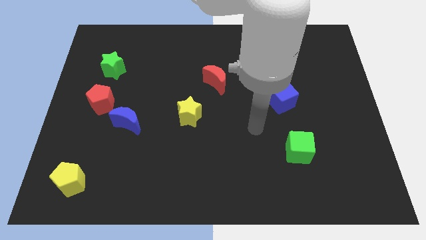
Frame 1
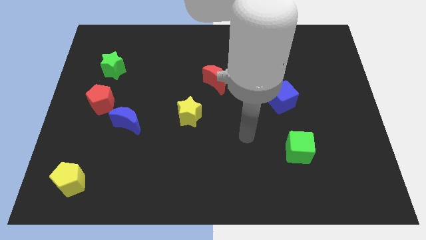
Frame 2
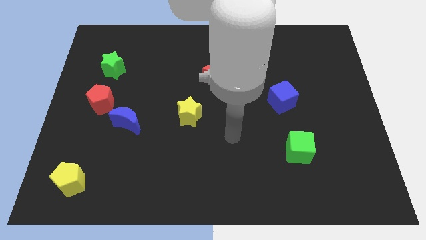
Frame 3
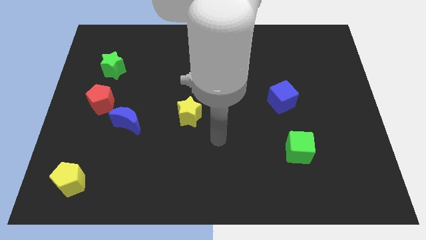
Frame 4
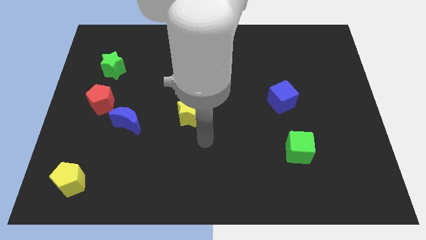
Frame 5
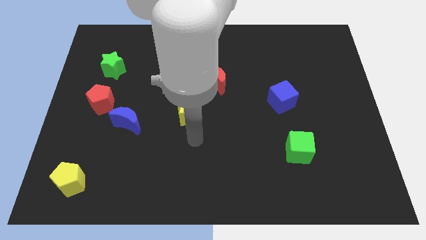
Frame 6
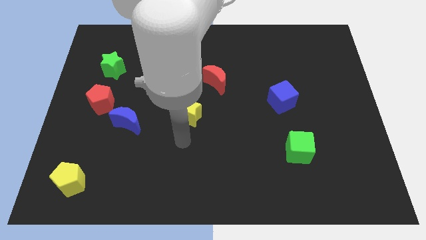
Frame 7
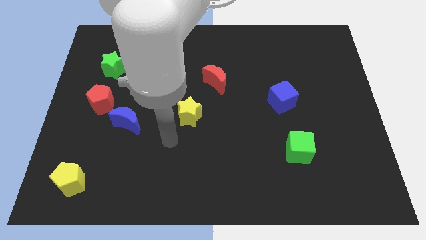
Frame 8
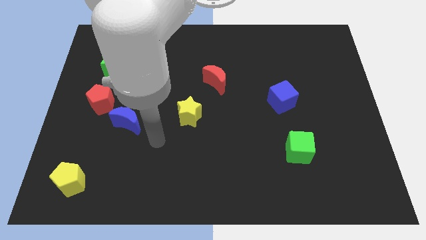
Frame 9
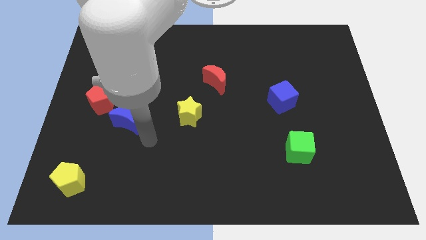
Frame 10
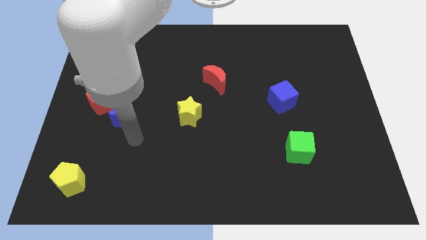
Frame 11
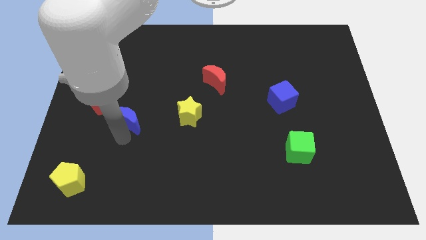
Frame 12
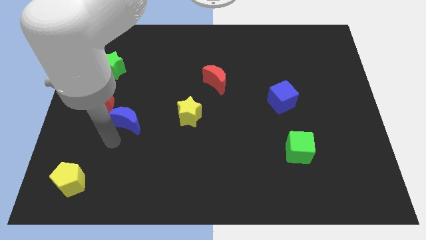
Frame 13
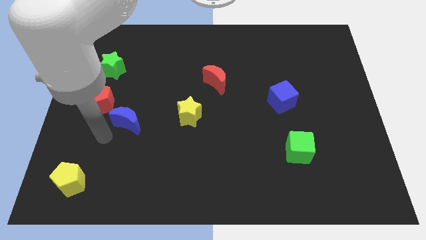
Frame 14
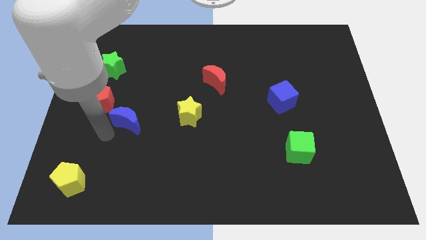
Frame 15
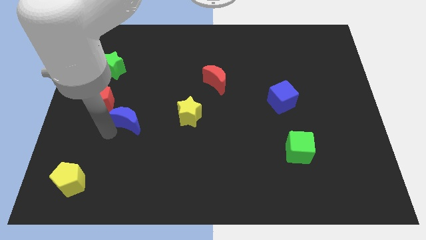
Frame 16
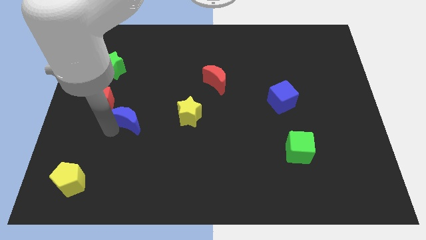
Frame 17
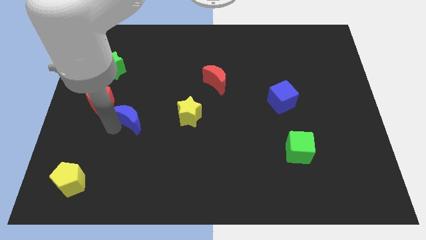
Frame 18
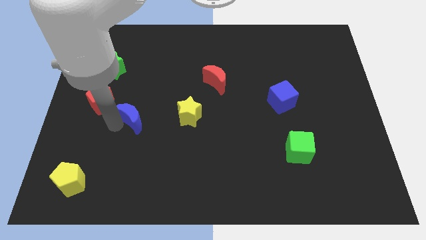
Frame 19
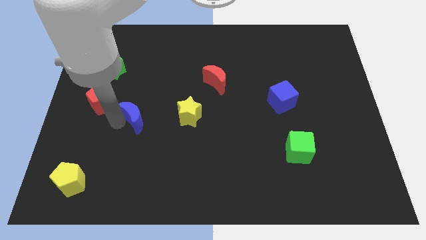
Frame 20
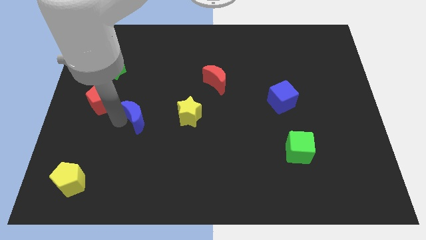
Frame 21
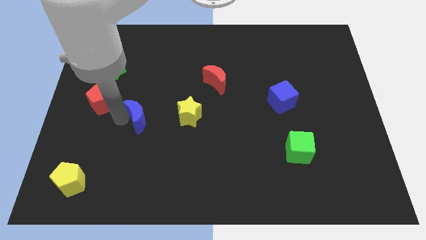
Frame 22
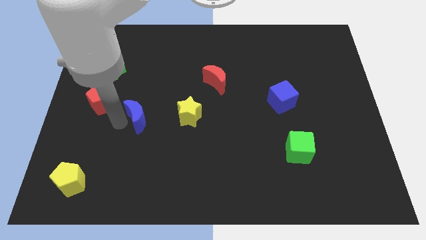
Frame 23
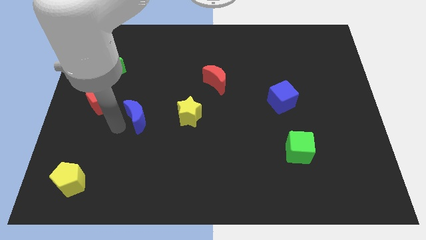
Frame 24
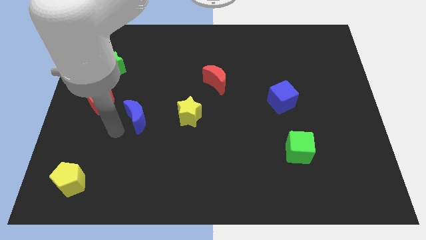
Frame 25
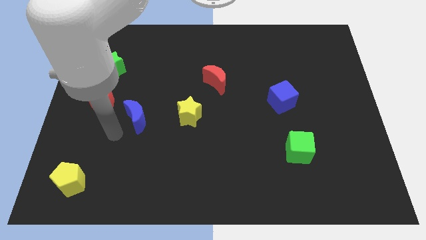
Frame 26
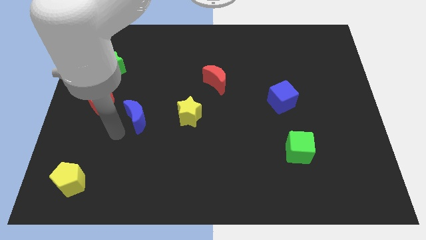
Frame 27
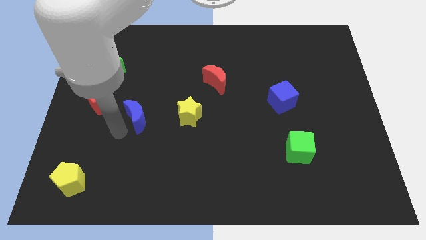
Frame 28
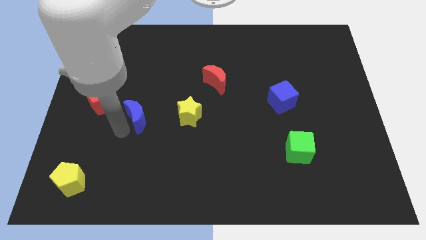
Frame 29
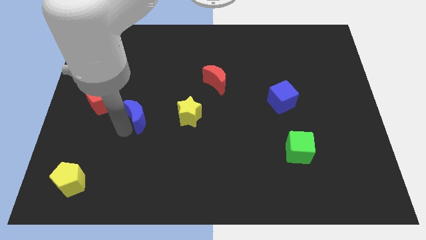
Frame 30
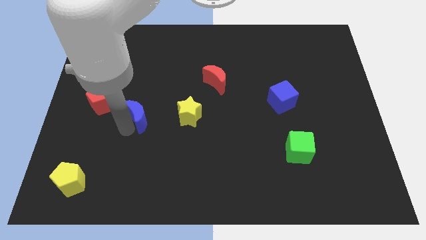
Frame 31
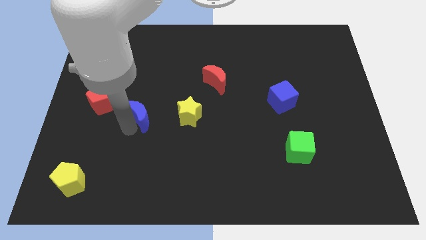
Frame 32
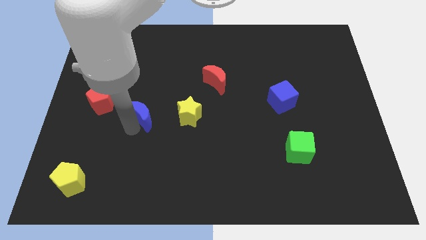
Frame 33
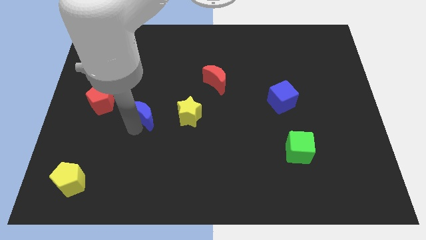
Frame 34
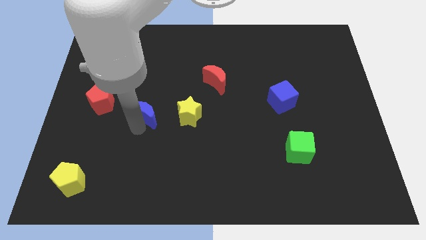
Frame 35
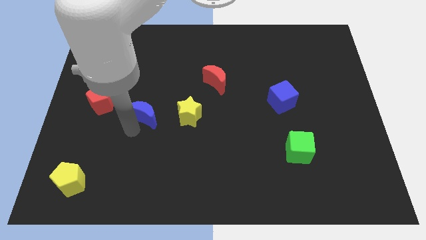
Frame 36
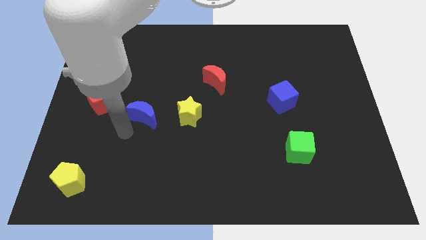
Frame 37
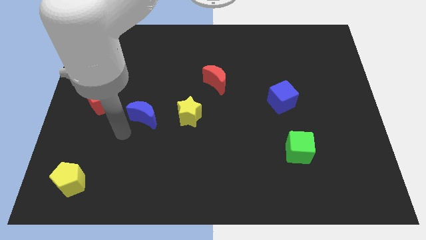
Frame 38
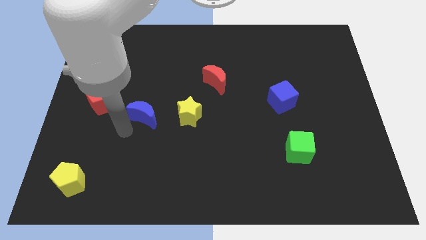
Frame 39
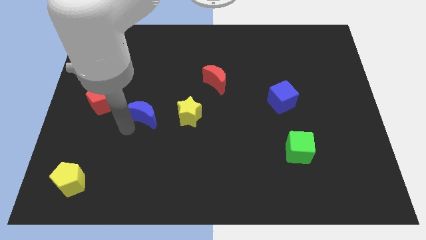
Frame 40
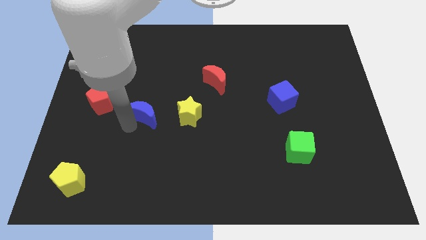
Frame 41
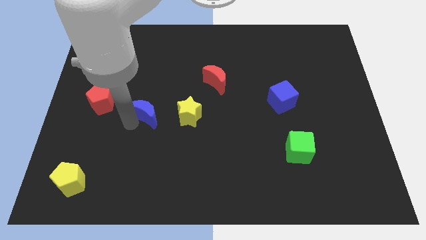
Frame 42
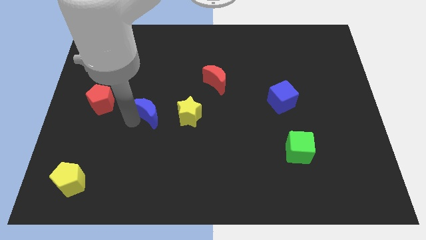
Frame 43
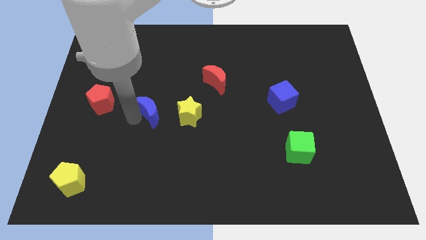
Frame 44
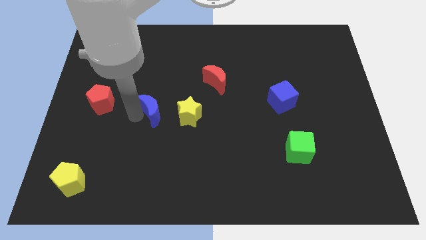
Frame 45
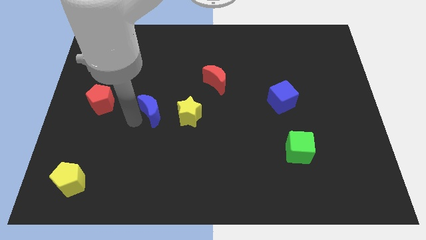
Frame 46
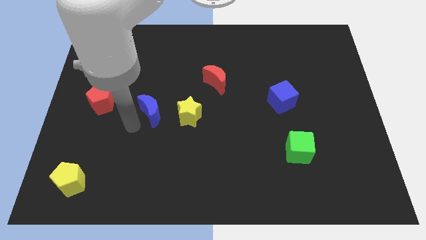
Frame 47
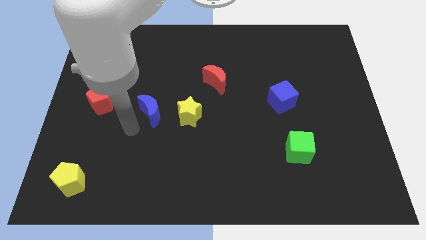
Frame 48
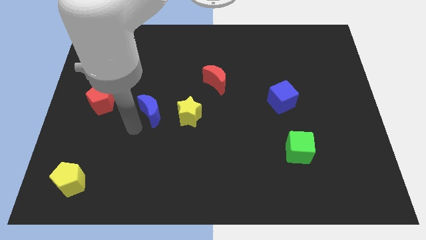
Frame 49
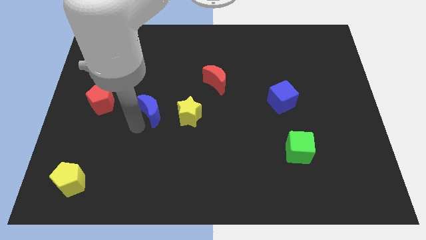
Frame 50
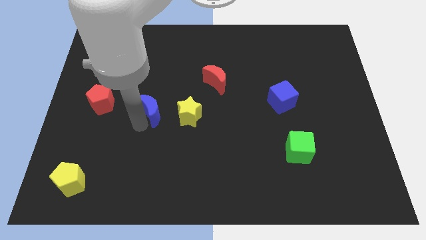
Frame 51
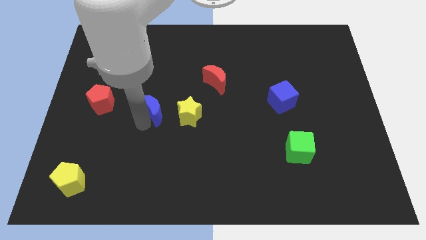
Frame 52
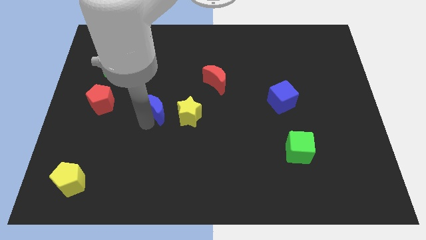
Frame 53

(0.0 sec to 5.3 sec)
push the blue moon to the top left side of the yellow star

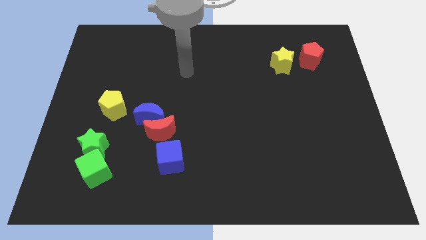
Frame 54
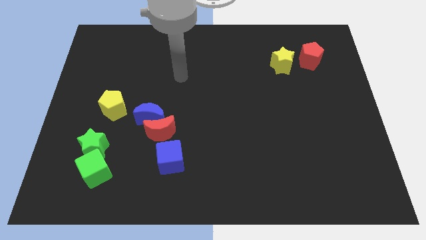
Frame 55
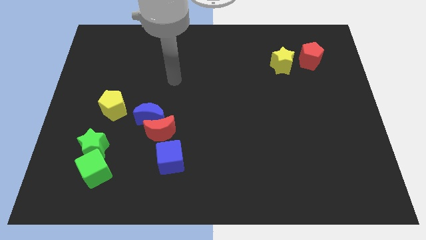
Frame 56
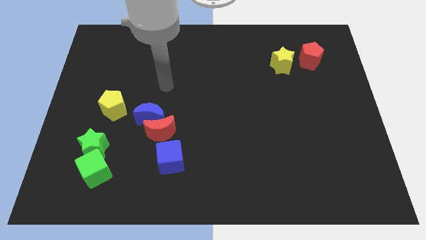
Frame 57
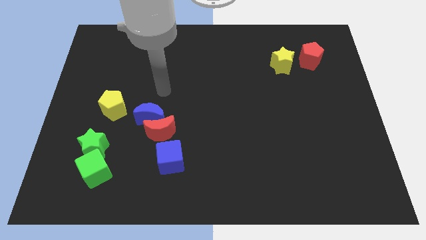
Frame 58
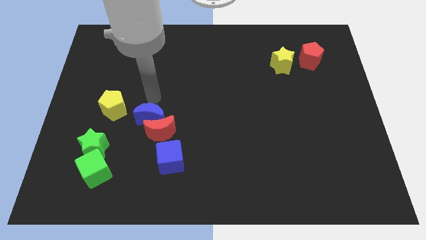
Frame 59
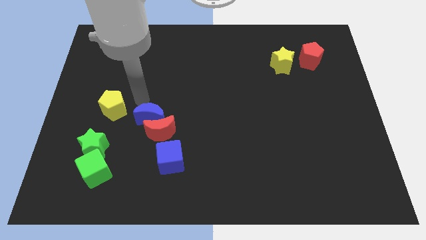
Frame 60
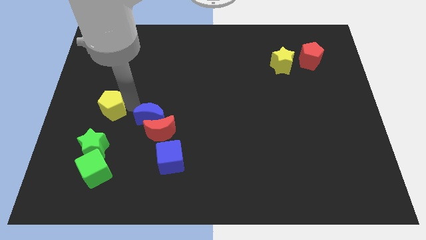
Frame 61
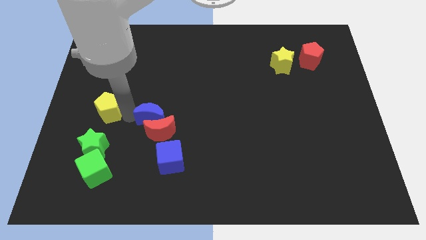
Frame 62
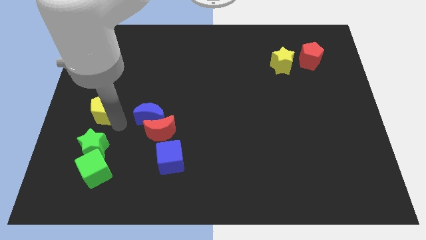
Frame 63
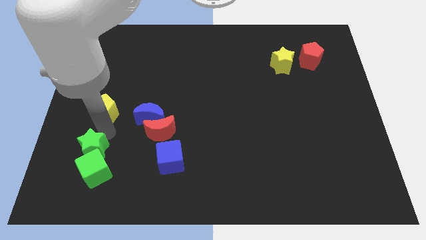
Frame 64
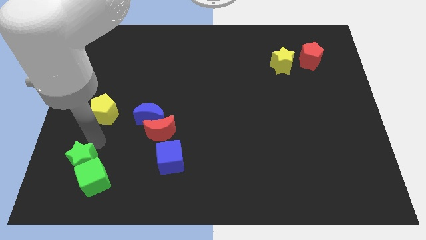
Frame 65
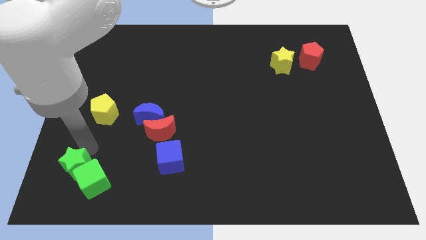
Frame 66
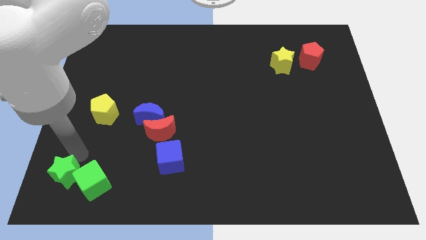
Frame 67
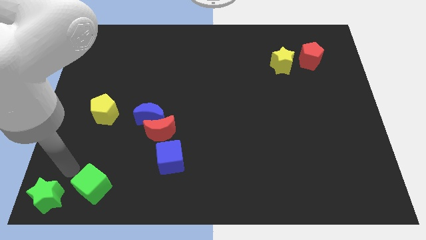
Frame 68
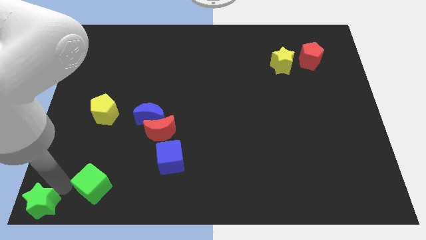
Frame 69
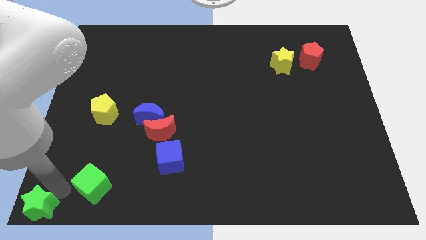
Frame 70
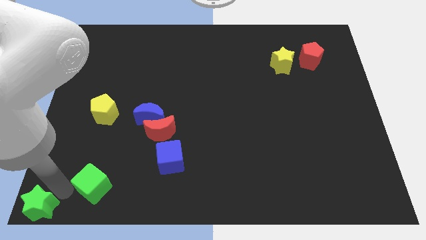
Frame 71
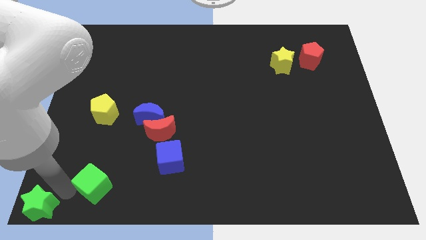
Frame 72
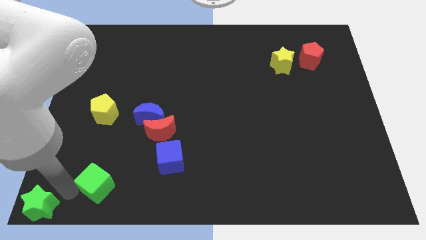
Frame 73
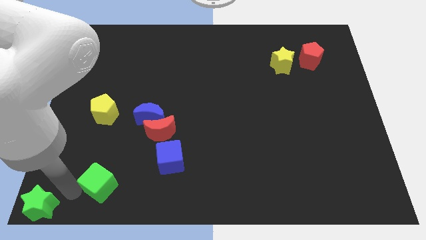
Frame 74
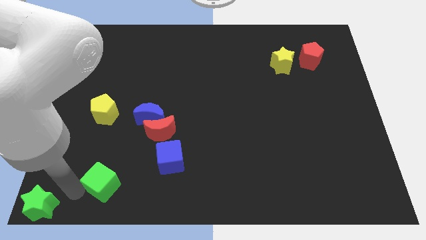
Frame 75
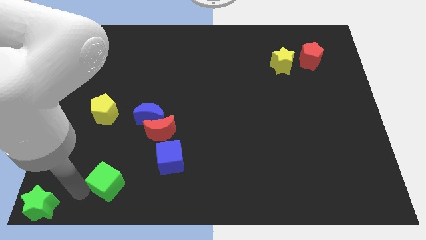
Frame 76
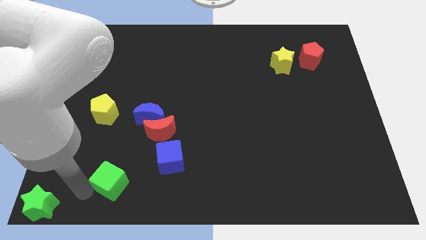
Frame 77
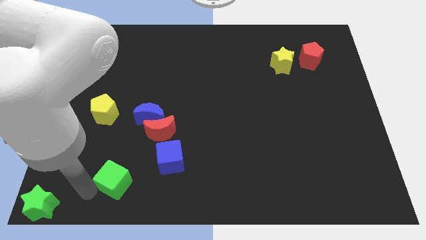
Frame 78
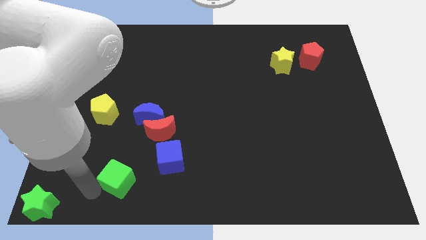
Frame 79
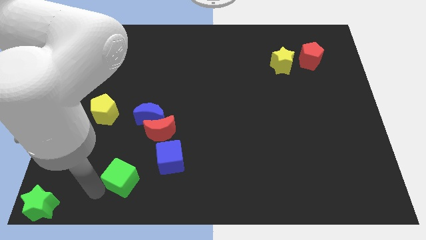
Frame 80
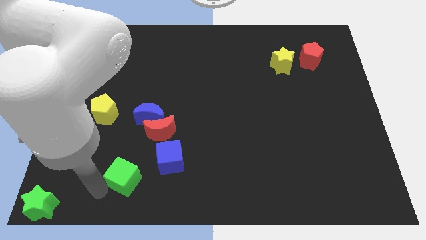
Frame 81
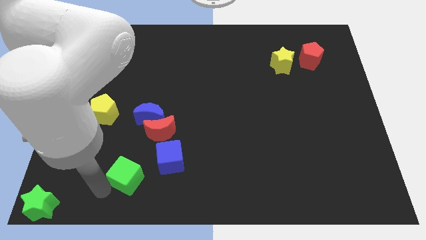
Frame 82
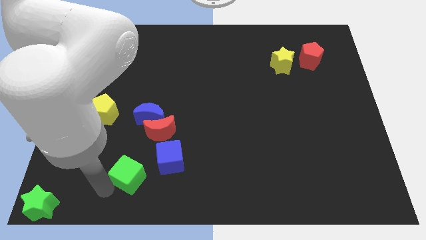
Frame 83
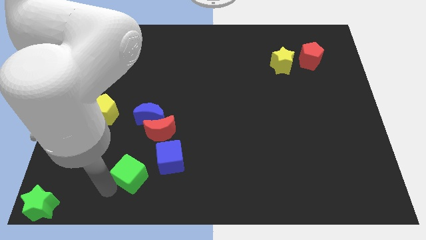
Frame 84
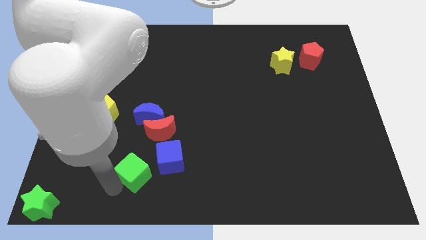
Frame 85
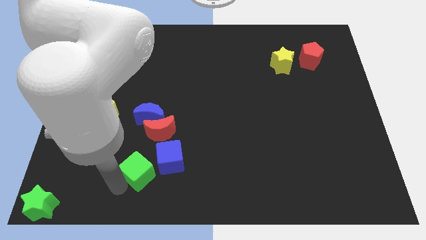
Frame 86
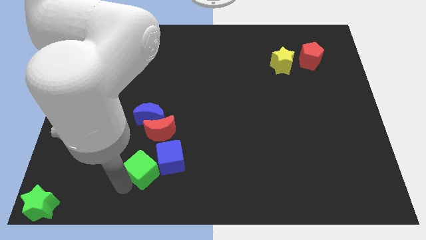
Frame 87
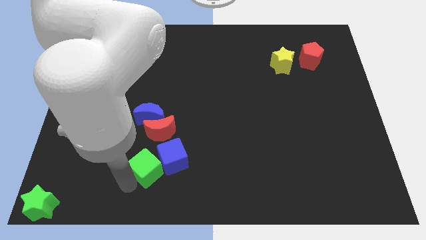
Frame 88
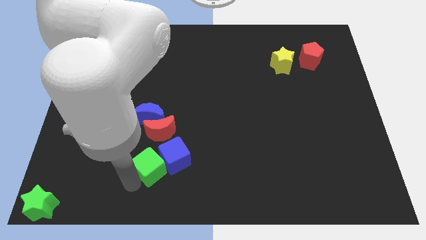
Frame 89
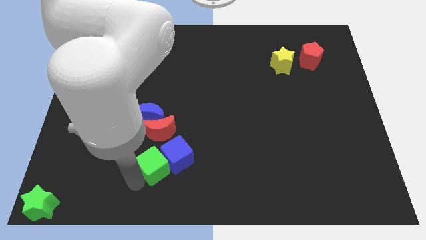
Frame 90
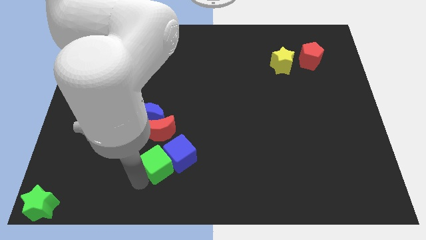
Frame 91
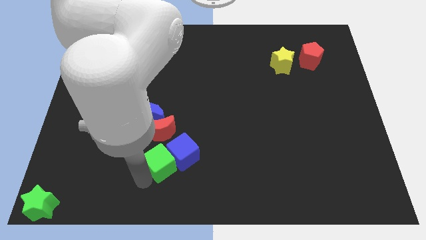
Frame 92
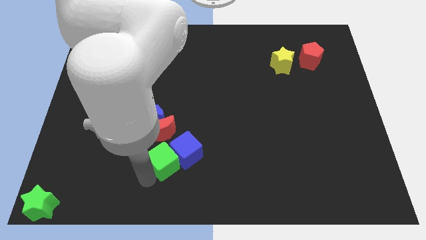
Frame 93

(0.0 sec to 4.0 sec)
put the green cube to the bottom right side of the red moon
